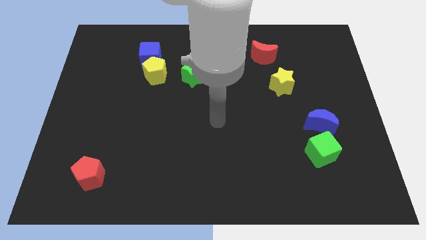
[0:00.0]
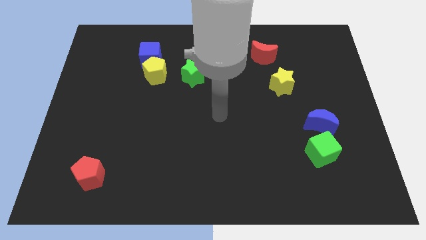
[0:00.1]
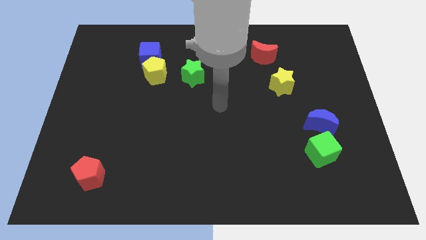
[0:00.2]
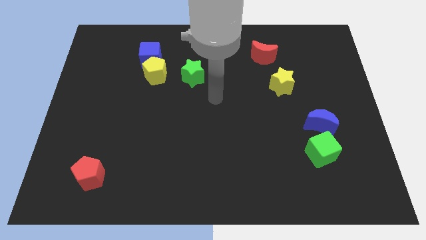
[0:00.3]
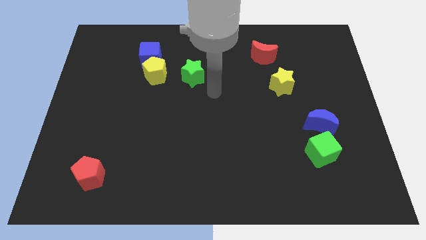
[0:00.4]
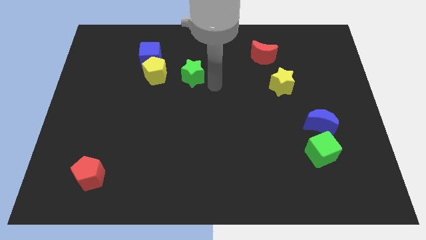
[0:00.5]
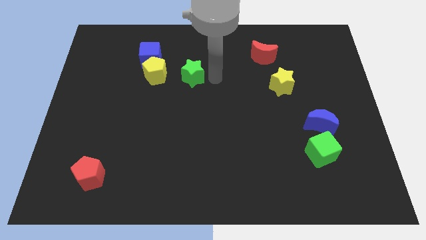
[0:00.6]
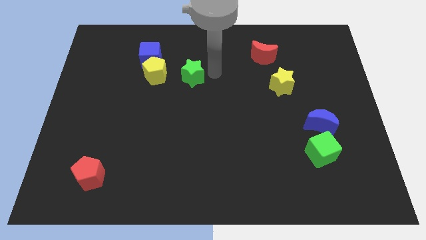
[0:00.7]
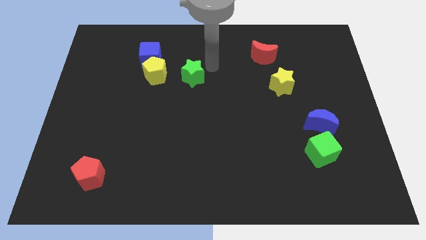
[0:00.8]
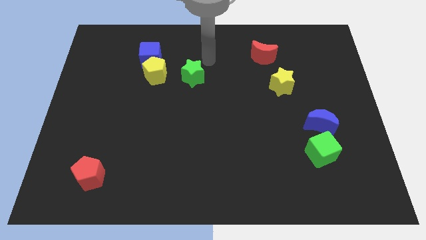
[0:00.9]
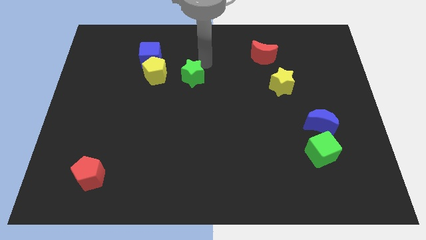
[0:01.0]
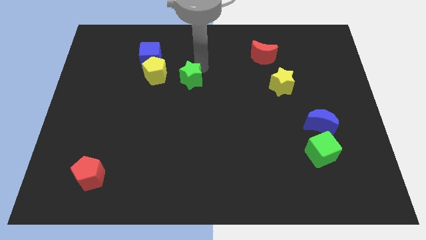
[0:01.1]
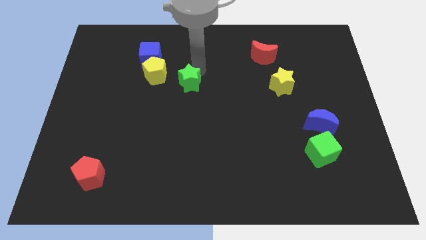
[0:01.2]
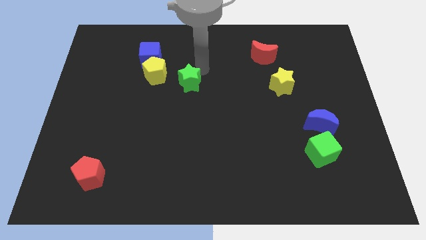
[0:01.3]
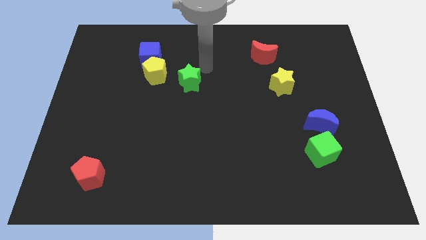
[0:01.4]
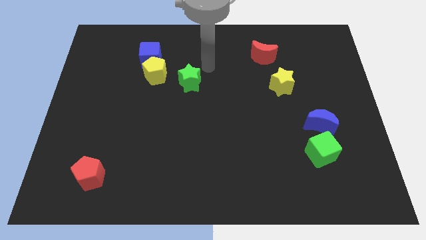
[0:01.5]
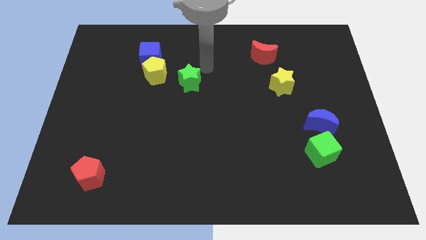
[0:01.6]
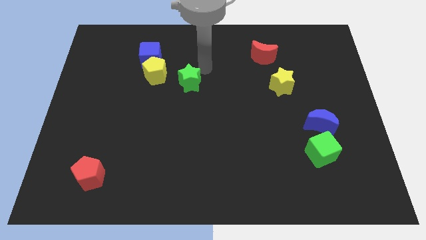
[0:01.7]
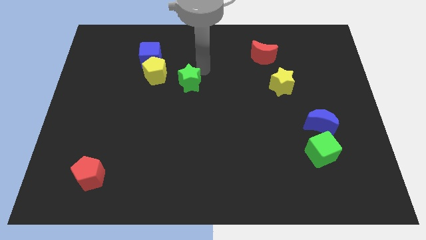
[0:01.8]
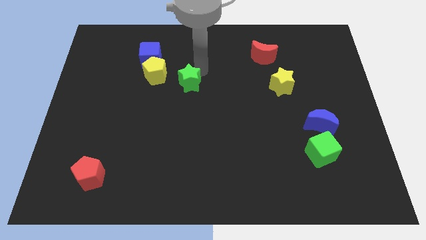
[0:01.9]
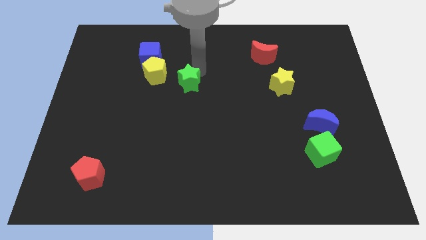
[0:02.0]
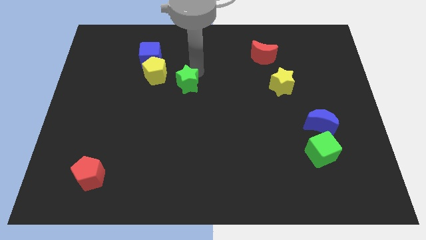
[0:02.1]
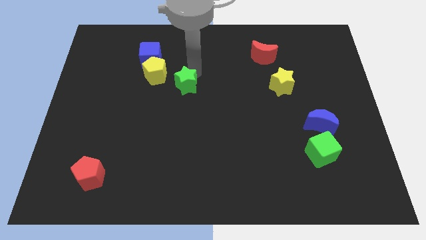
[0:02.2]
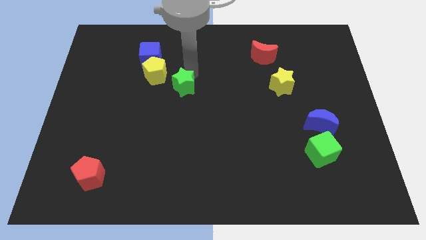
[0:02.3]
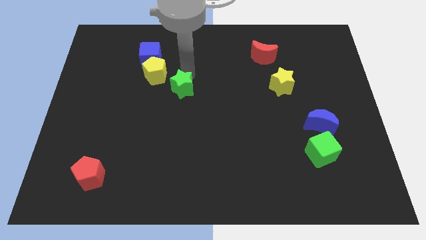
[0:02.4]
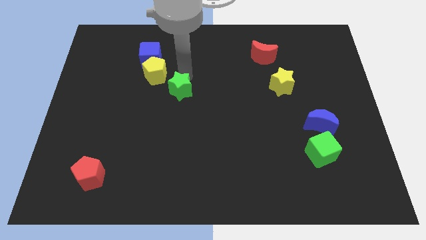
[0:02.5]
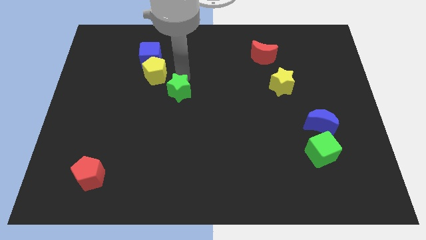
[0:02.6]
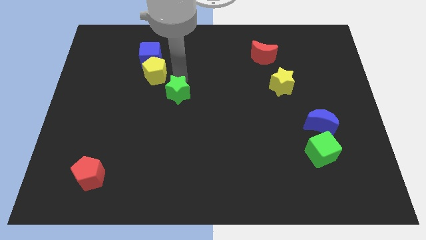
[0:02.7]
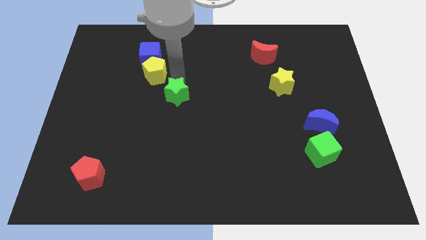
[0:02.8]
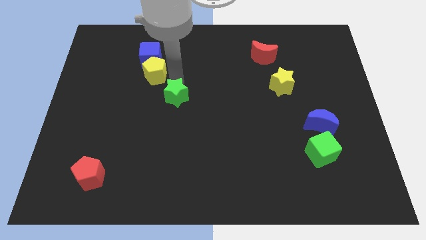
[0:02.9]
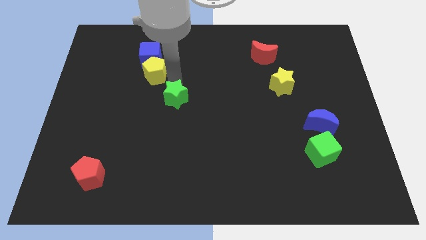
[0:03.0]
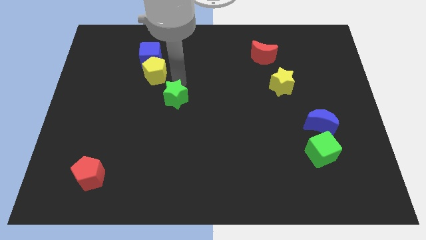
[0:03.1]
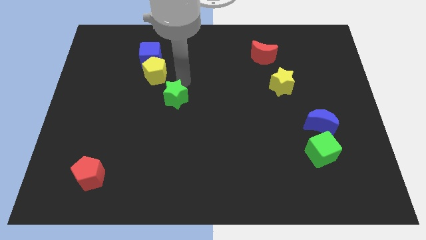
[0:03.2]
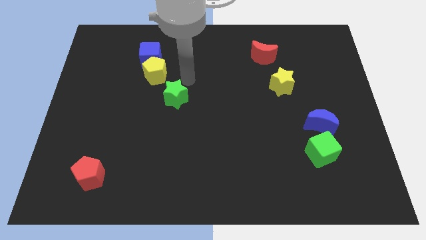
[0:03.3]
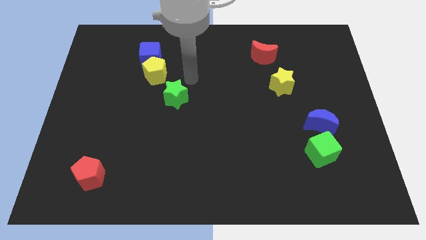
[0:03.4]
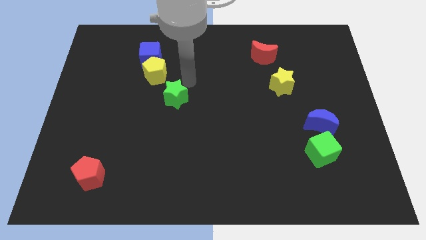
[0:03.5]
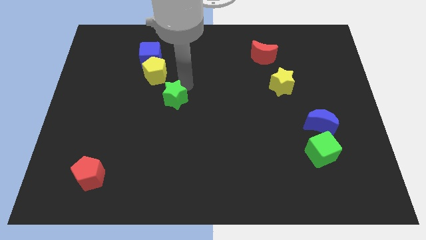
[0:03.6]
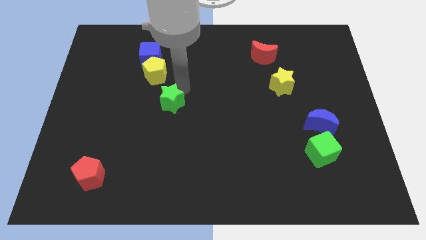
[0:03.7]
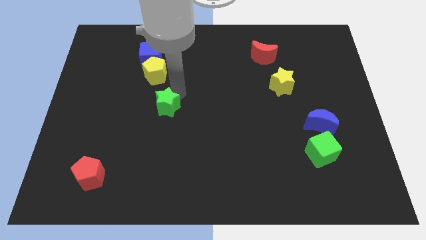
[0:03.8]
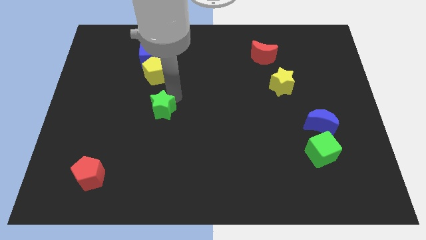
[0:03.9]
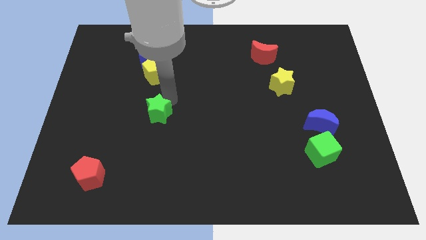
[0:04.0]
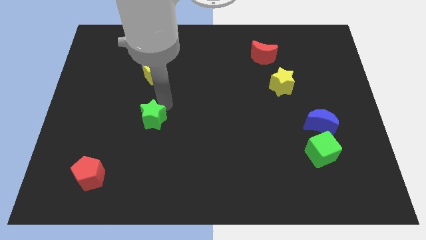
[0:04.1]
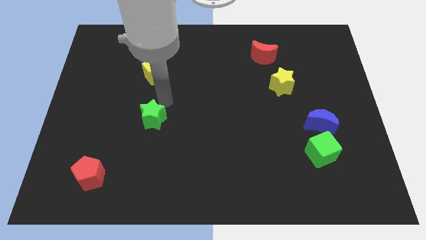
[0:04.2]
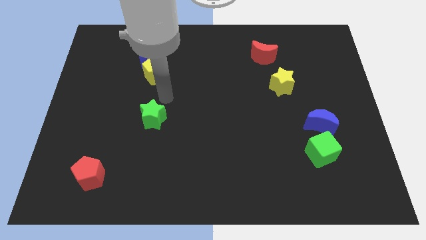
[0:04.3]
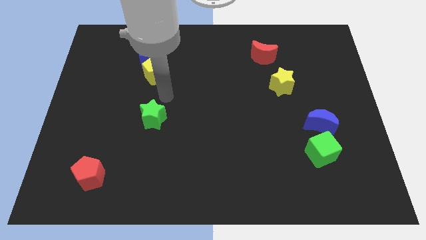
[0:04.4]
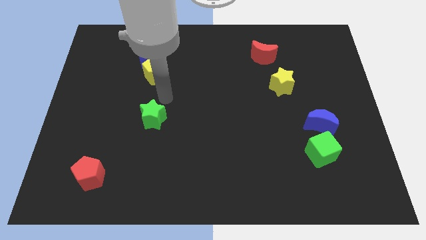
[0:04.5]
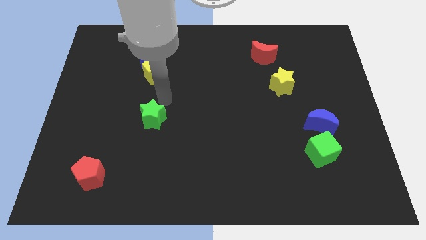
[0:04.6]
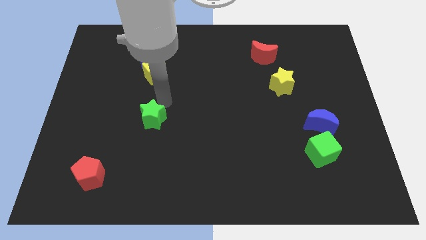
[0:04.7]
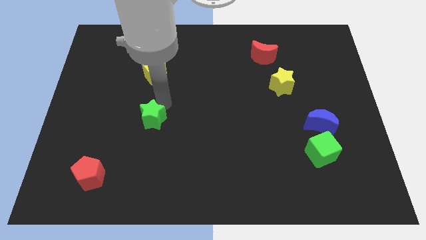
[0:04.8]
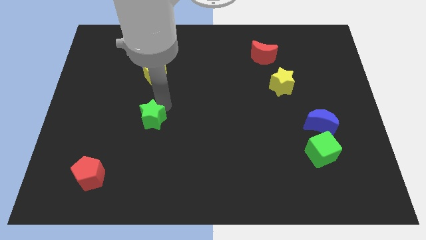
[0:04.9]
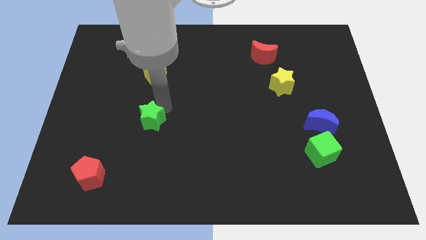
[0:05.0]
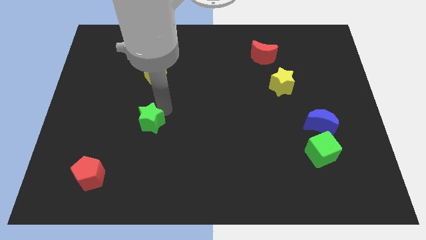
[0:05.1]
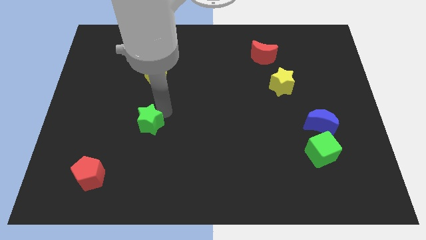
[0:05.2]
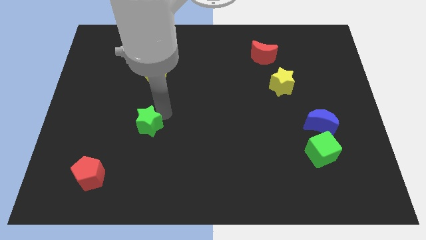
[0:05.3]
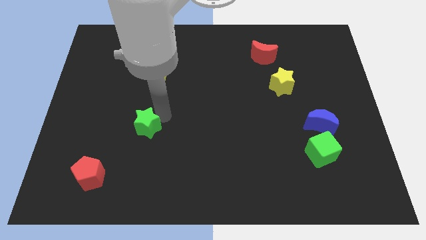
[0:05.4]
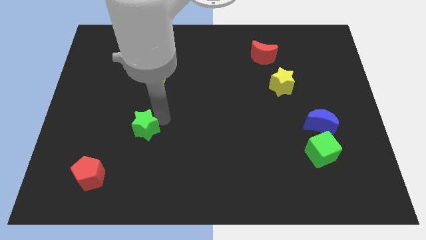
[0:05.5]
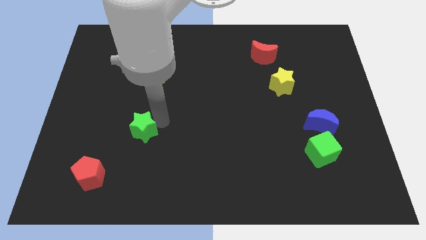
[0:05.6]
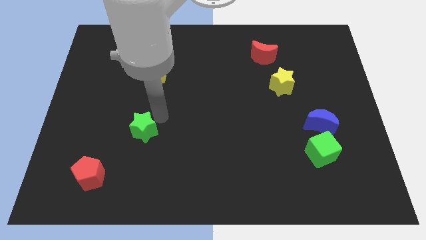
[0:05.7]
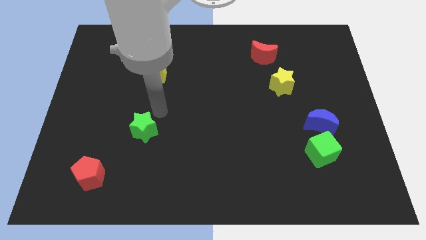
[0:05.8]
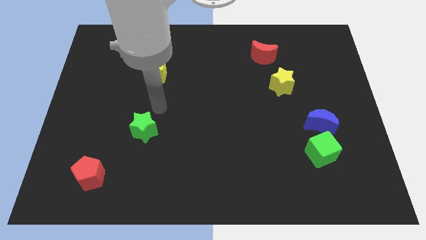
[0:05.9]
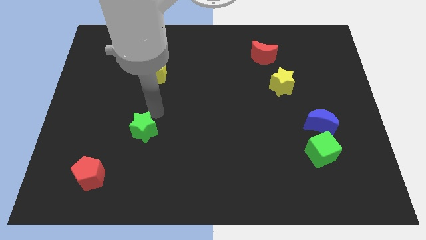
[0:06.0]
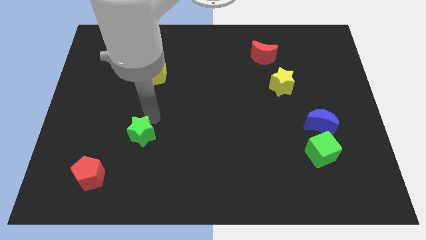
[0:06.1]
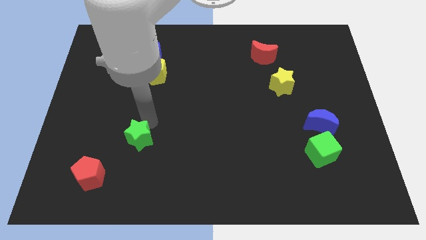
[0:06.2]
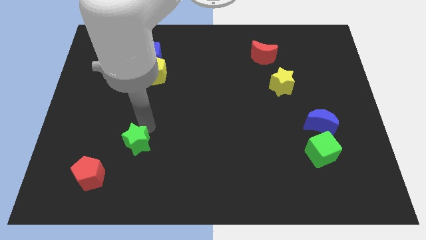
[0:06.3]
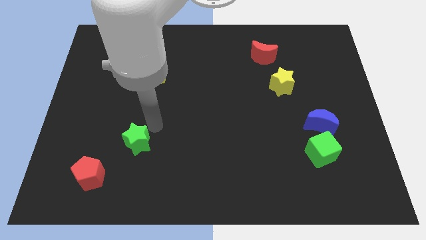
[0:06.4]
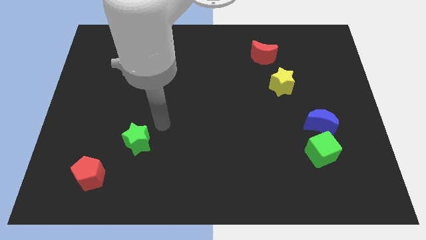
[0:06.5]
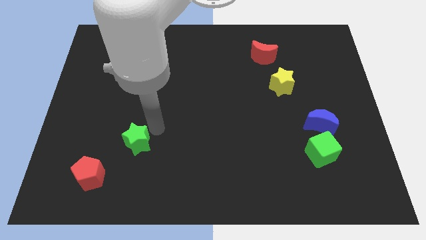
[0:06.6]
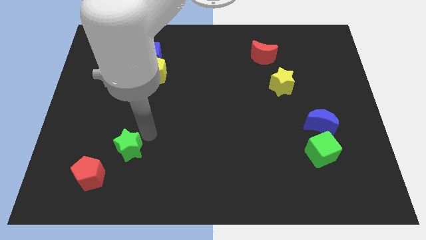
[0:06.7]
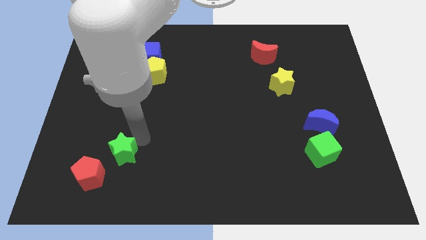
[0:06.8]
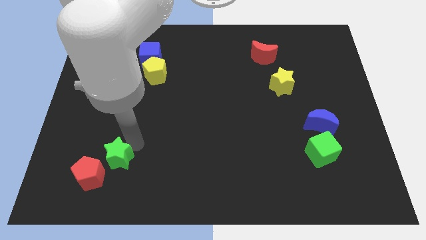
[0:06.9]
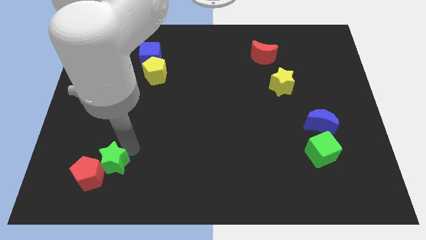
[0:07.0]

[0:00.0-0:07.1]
move the green star to the red pentagon
